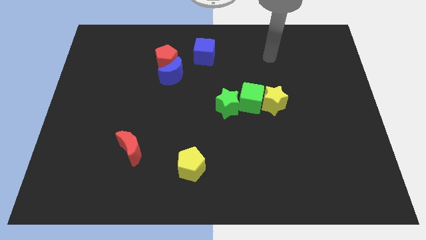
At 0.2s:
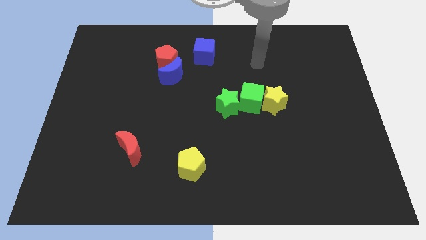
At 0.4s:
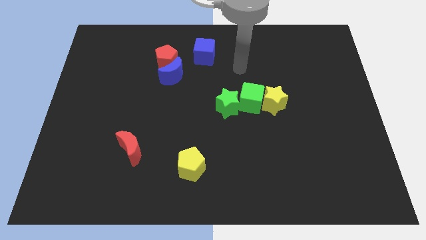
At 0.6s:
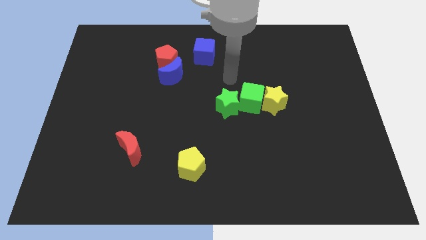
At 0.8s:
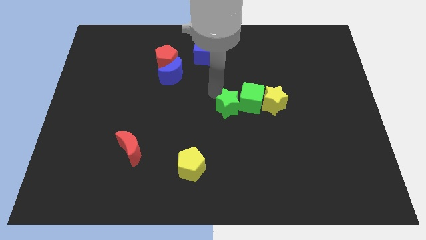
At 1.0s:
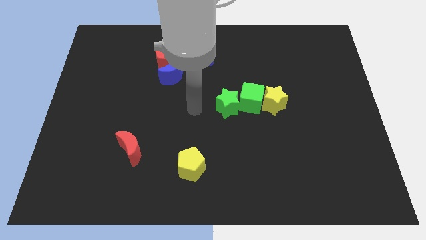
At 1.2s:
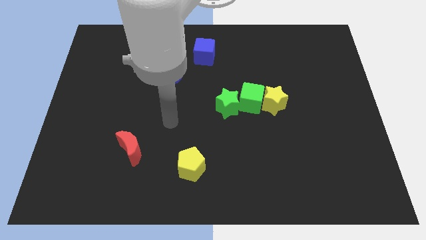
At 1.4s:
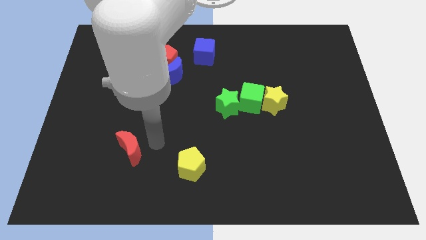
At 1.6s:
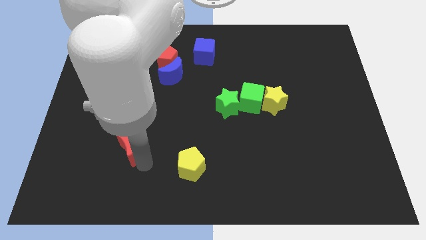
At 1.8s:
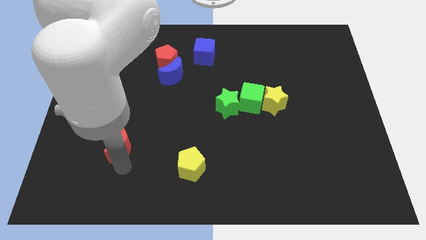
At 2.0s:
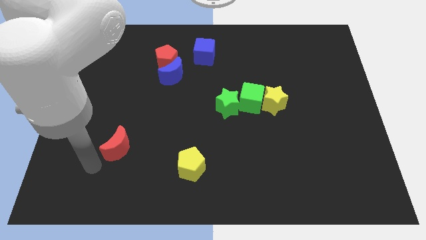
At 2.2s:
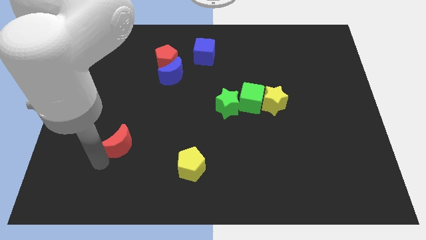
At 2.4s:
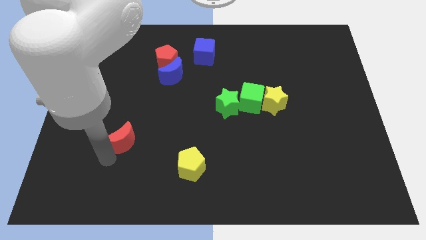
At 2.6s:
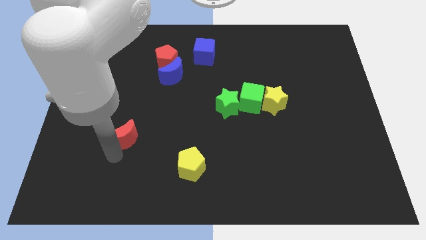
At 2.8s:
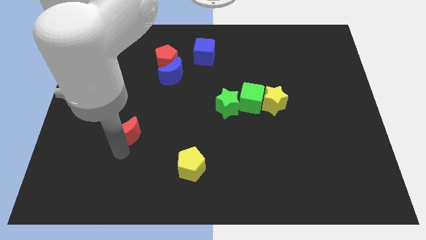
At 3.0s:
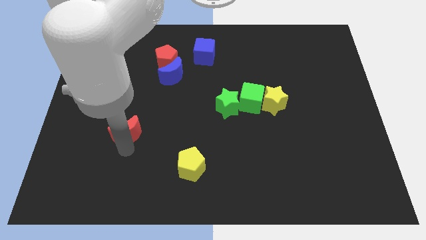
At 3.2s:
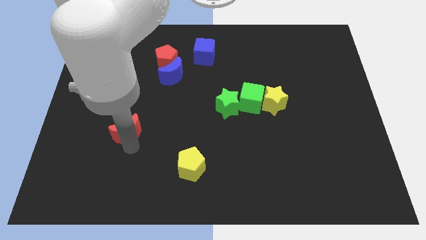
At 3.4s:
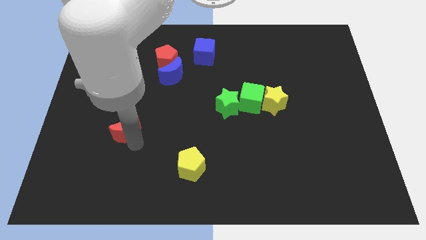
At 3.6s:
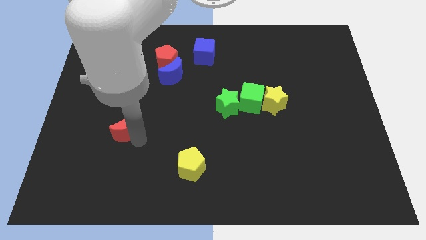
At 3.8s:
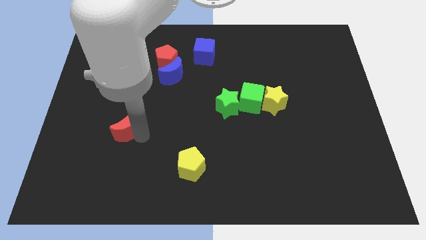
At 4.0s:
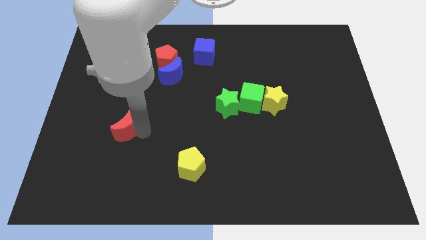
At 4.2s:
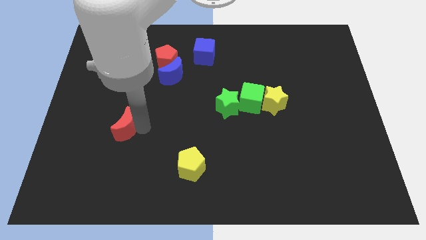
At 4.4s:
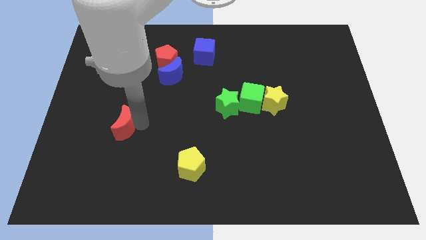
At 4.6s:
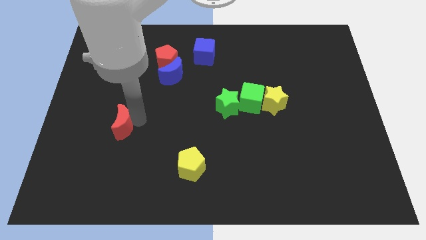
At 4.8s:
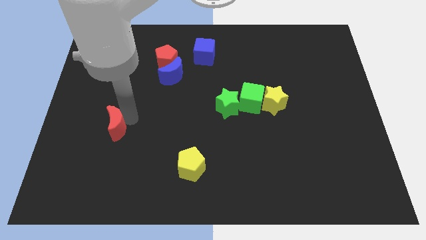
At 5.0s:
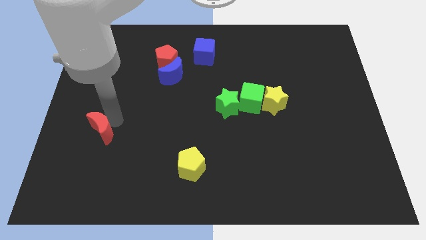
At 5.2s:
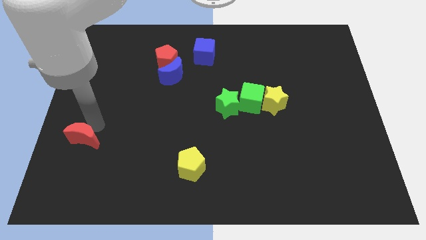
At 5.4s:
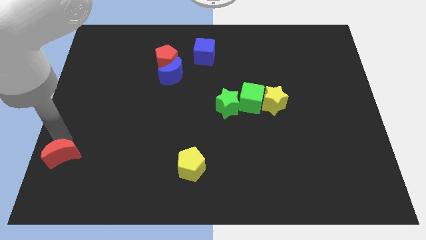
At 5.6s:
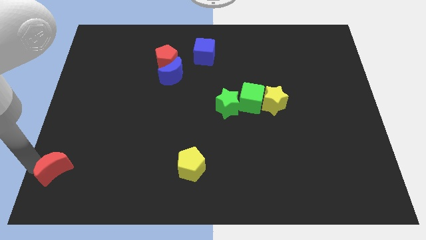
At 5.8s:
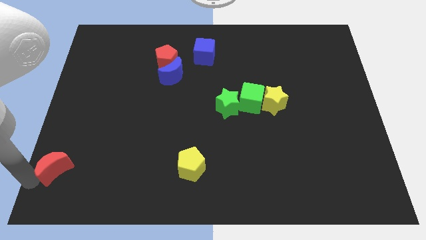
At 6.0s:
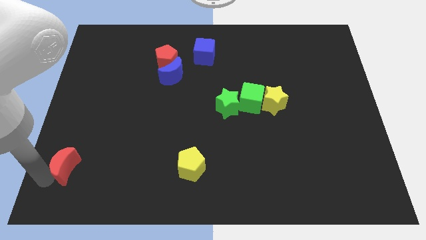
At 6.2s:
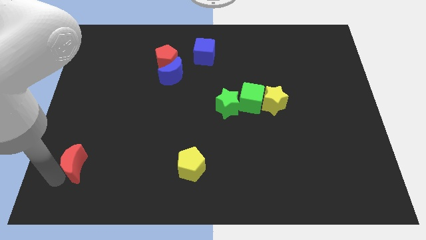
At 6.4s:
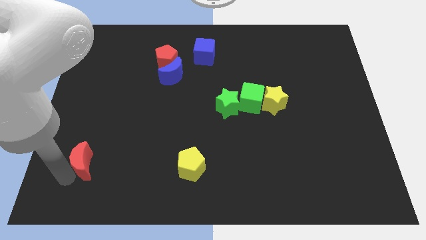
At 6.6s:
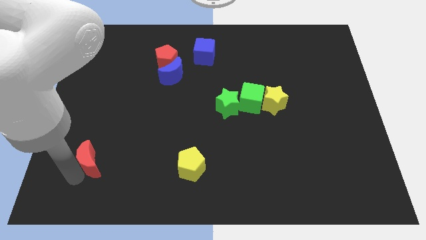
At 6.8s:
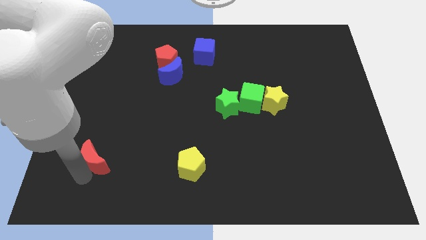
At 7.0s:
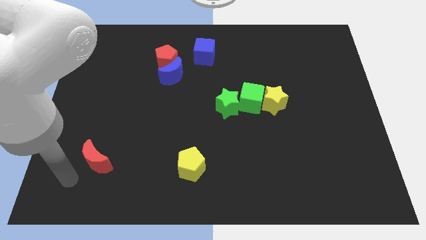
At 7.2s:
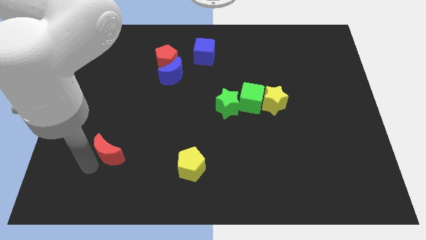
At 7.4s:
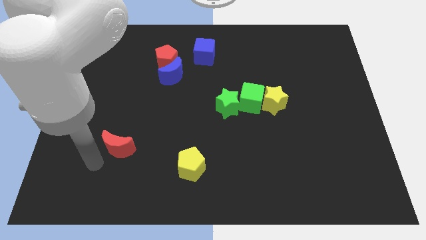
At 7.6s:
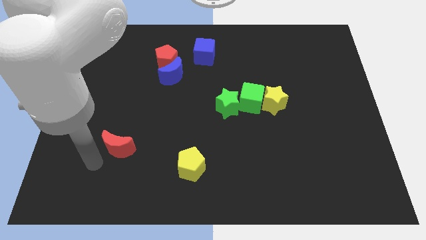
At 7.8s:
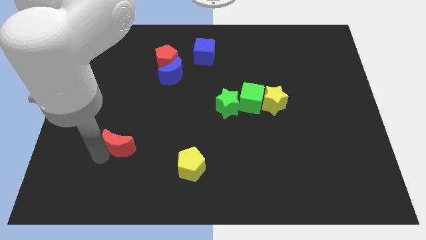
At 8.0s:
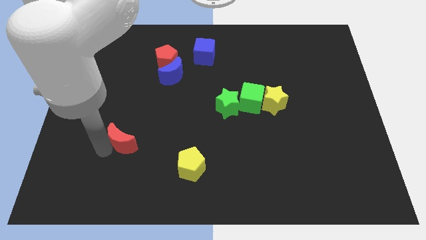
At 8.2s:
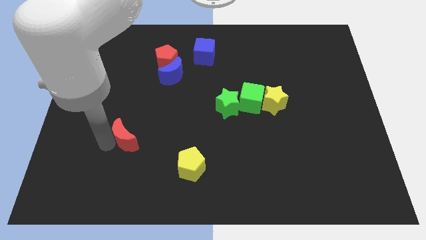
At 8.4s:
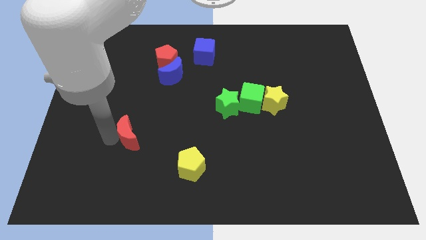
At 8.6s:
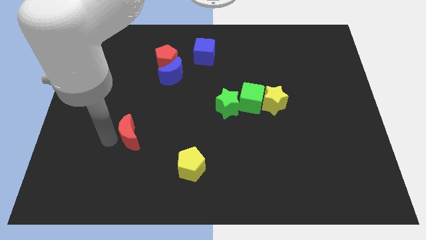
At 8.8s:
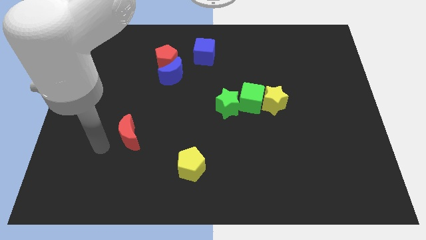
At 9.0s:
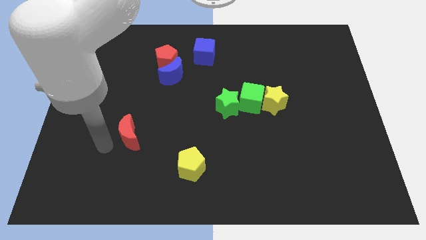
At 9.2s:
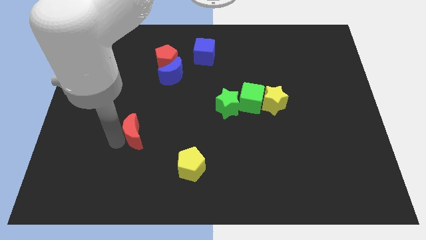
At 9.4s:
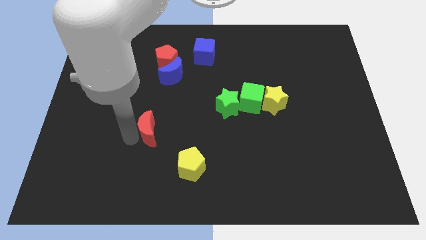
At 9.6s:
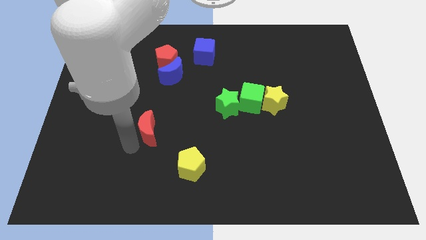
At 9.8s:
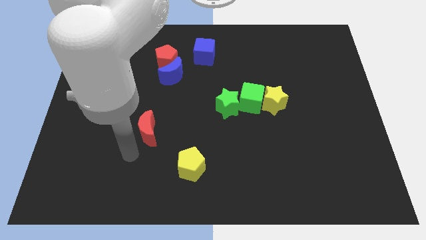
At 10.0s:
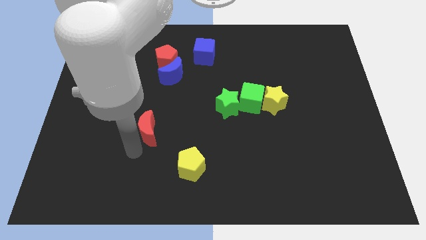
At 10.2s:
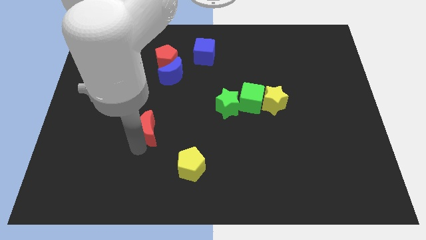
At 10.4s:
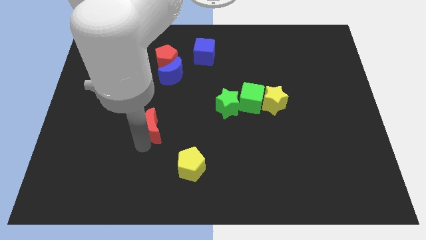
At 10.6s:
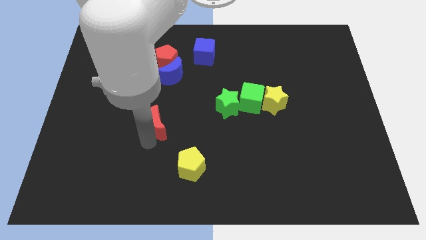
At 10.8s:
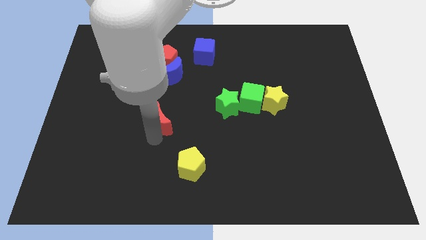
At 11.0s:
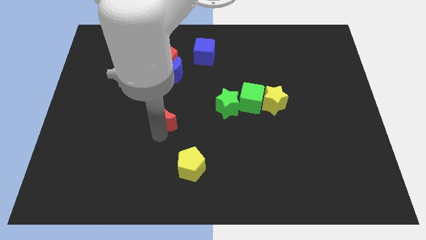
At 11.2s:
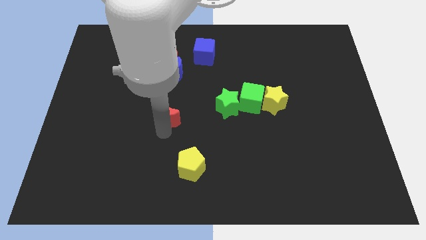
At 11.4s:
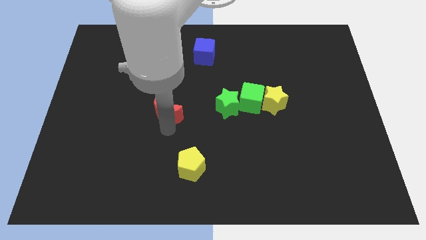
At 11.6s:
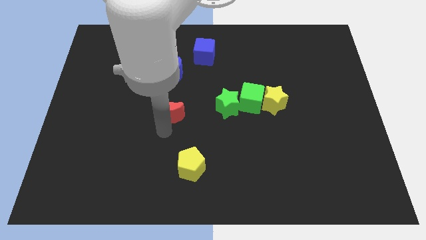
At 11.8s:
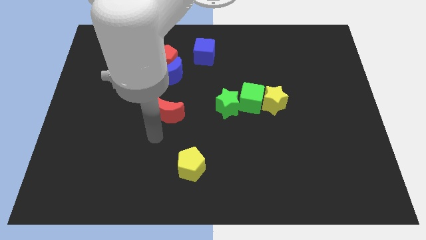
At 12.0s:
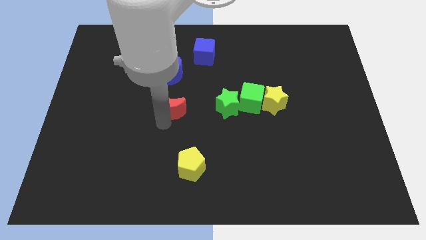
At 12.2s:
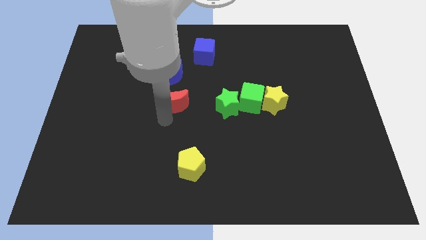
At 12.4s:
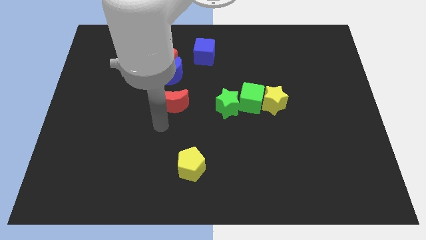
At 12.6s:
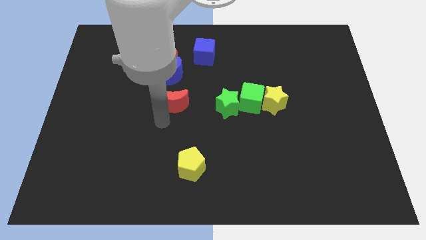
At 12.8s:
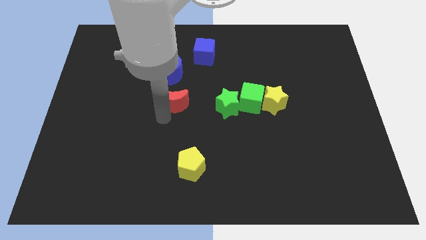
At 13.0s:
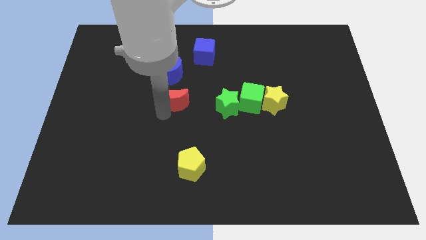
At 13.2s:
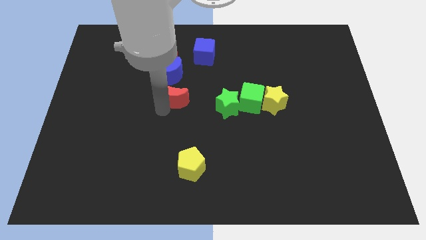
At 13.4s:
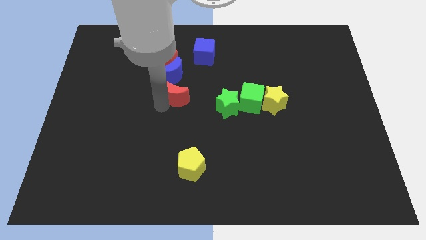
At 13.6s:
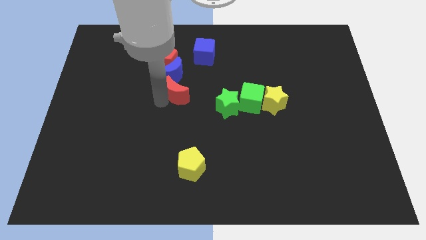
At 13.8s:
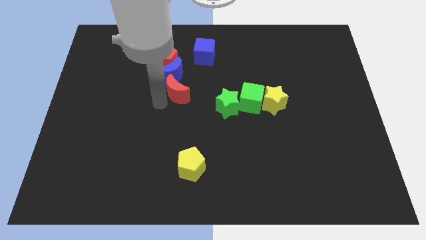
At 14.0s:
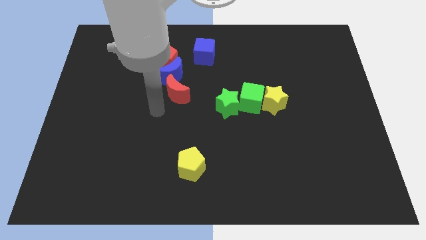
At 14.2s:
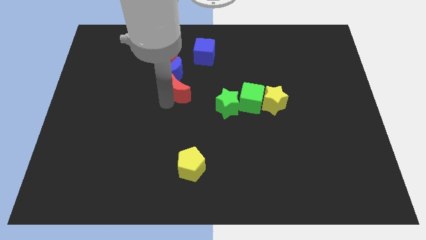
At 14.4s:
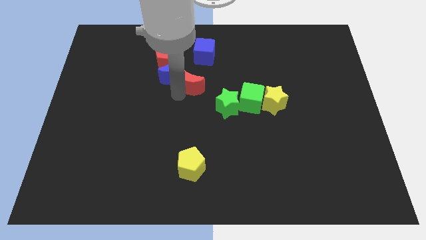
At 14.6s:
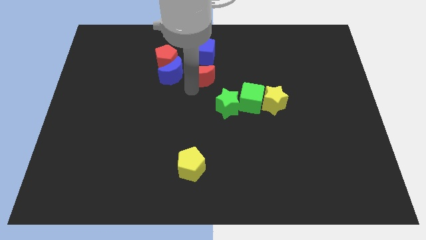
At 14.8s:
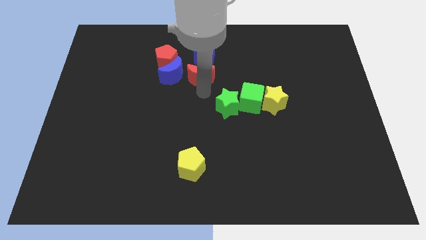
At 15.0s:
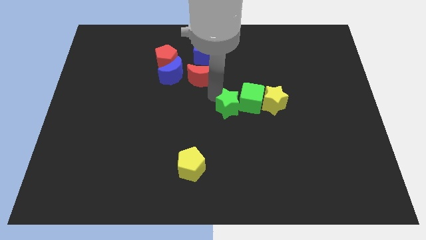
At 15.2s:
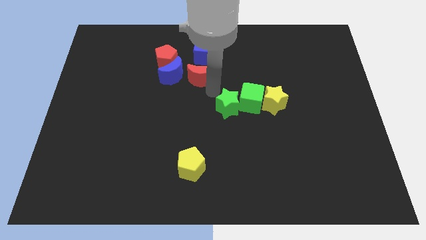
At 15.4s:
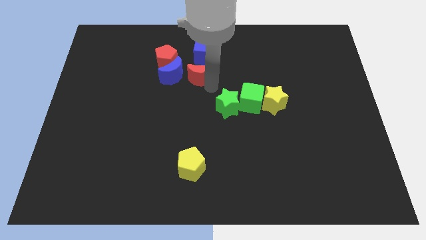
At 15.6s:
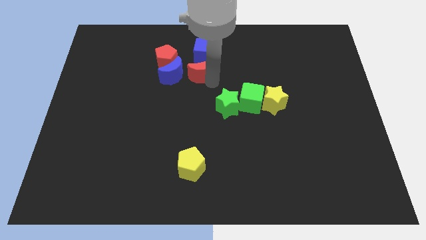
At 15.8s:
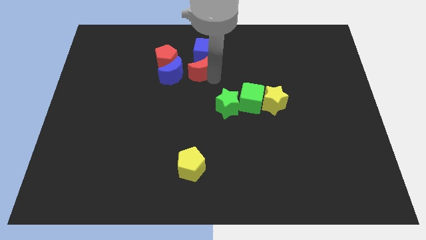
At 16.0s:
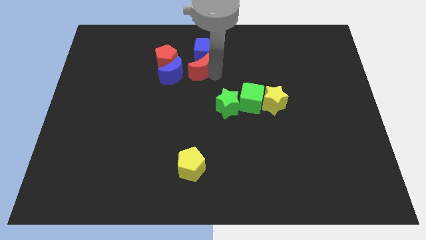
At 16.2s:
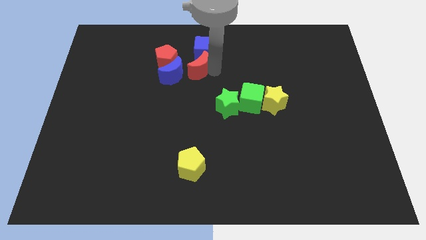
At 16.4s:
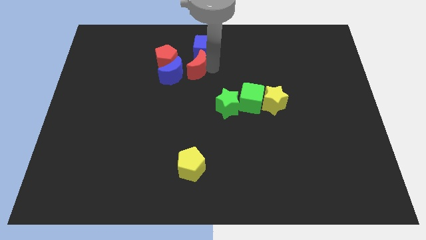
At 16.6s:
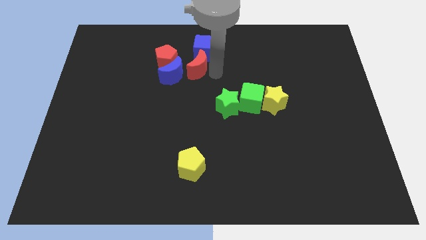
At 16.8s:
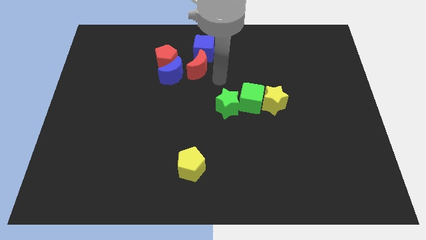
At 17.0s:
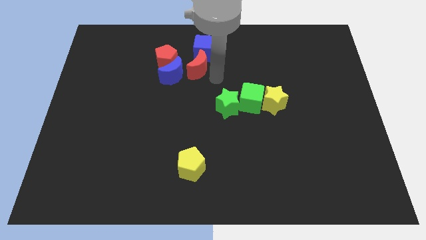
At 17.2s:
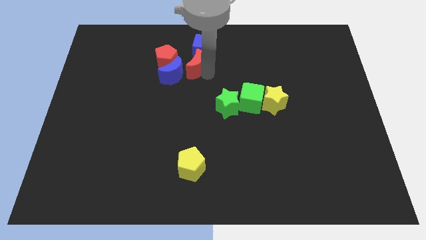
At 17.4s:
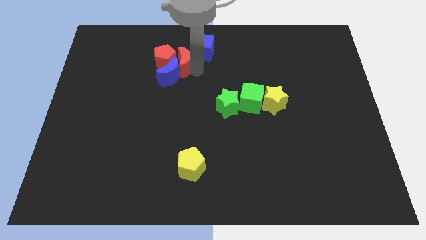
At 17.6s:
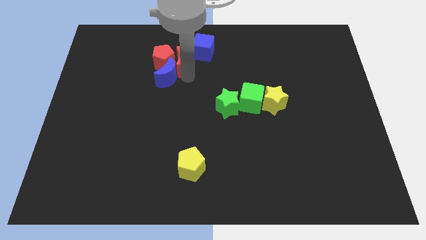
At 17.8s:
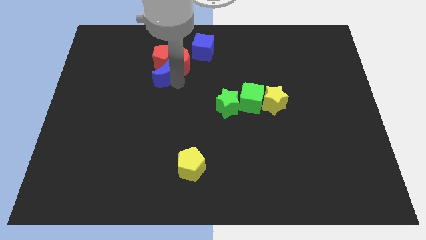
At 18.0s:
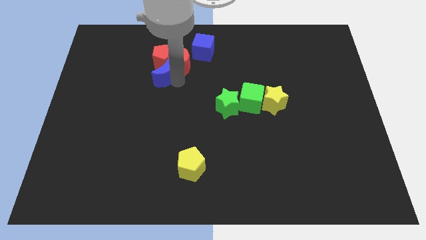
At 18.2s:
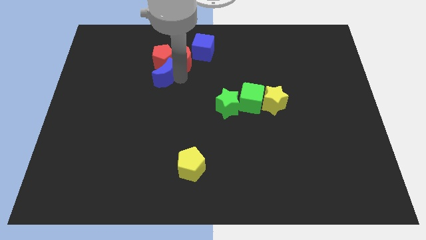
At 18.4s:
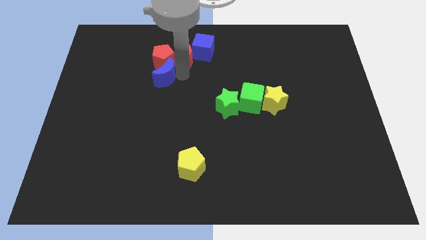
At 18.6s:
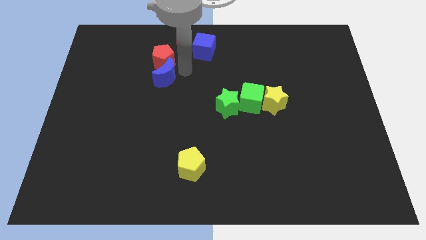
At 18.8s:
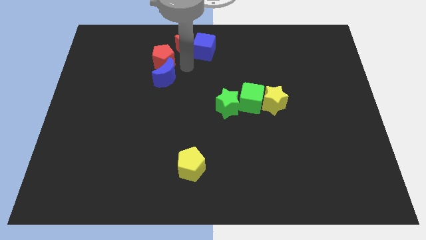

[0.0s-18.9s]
move the red moon to the top side
